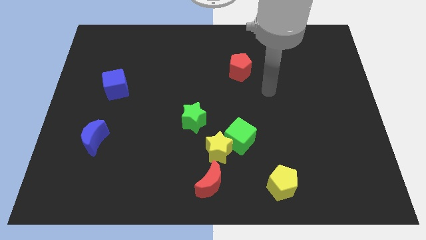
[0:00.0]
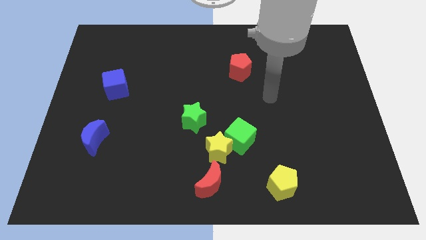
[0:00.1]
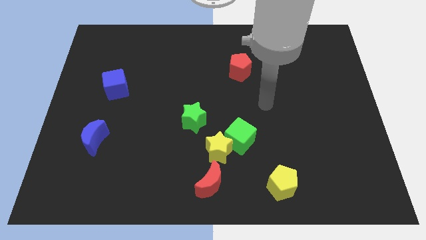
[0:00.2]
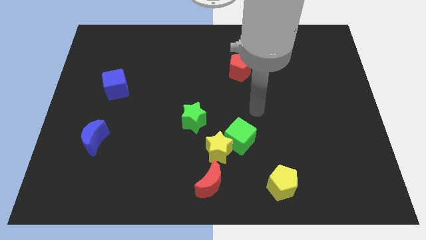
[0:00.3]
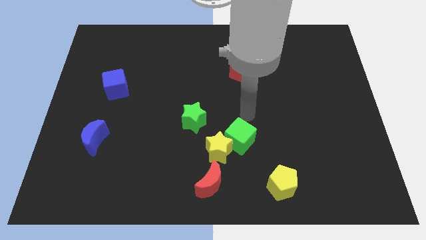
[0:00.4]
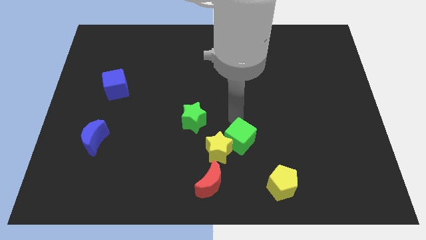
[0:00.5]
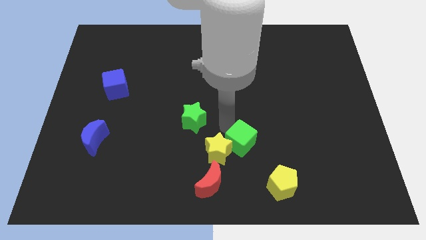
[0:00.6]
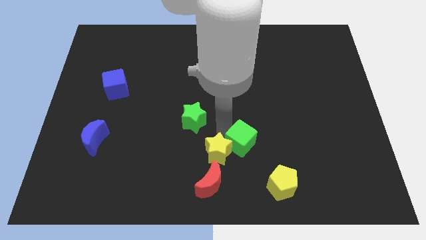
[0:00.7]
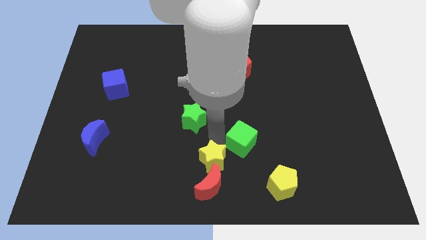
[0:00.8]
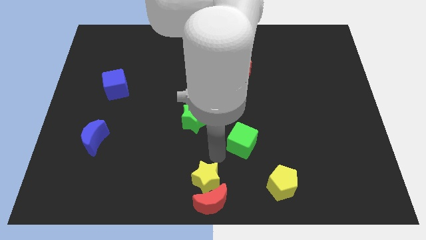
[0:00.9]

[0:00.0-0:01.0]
pull the green cube apart from the yellow star

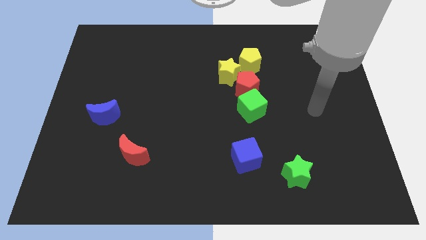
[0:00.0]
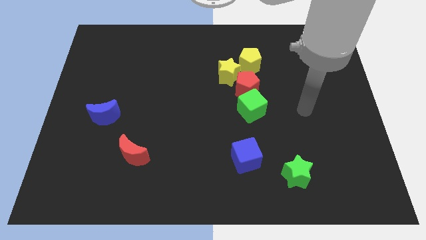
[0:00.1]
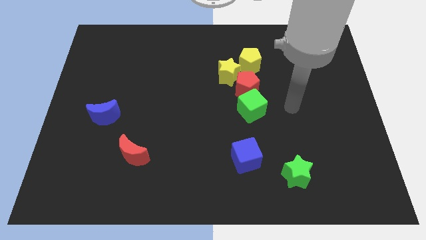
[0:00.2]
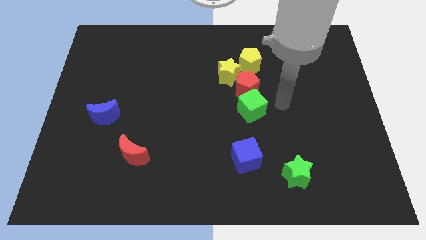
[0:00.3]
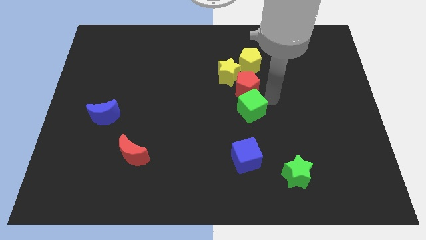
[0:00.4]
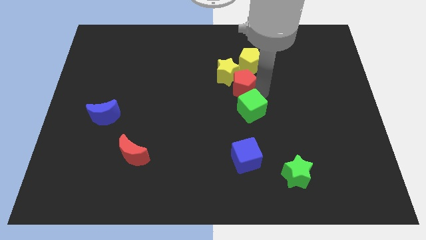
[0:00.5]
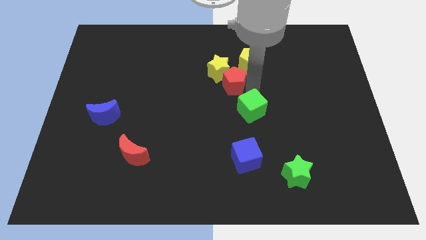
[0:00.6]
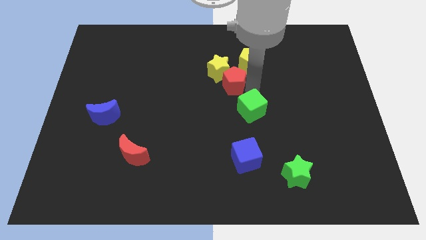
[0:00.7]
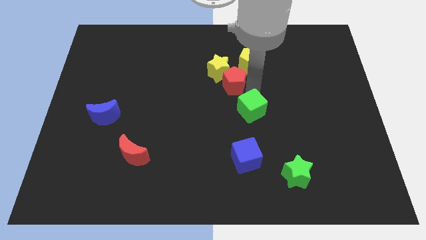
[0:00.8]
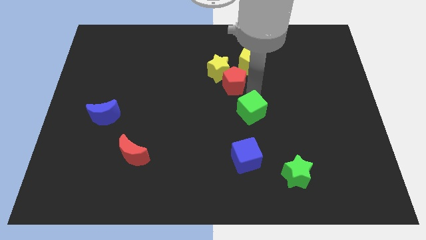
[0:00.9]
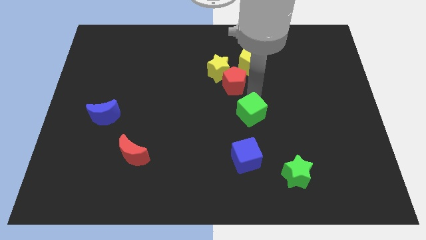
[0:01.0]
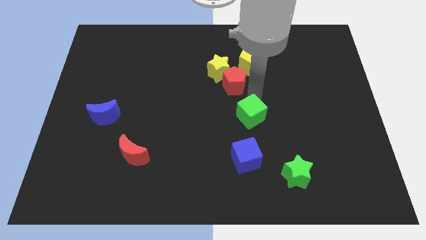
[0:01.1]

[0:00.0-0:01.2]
move the green cube away from the red pentagon

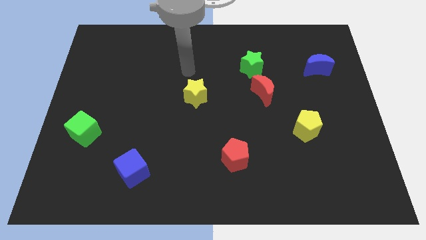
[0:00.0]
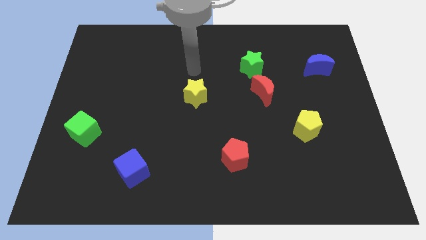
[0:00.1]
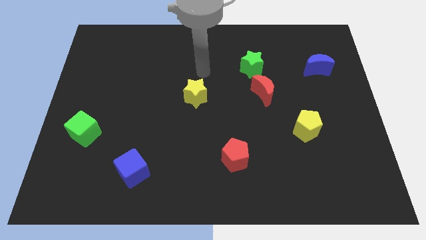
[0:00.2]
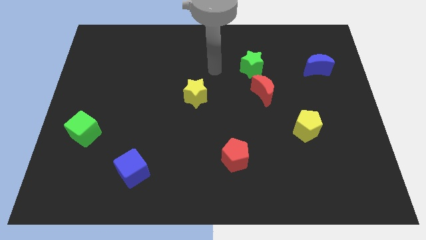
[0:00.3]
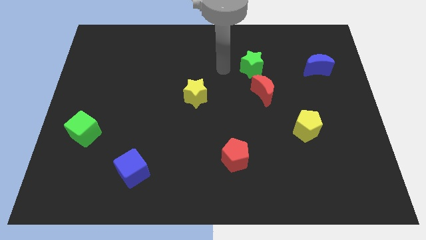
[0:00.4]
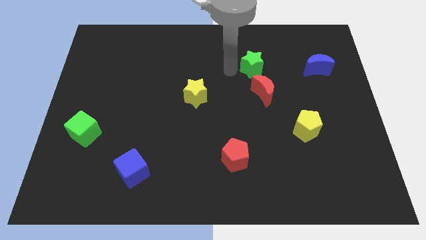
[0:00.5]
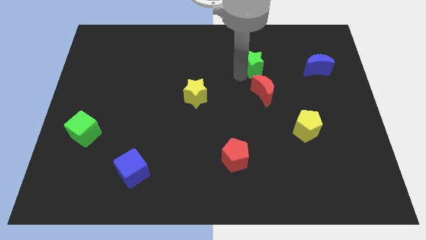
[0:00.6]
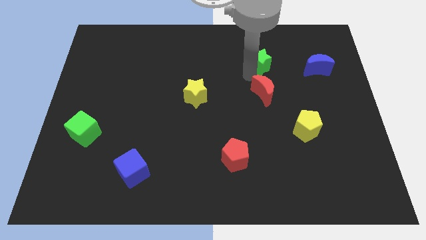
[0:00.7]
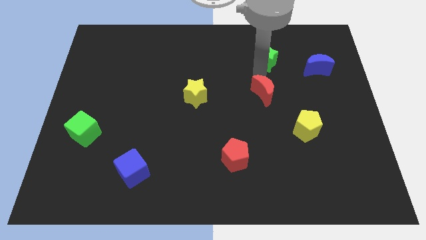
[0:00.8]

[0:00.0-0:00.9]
move the red moon away from the green star

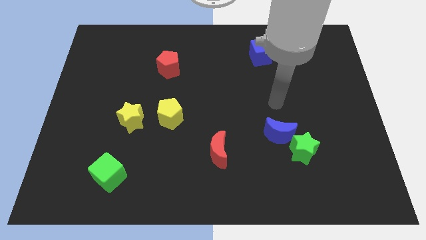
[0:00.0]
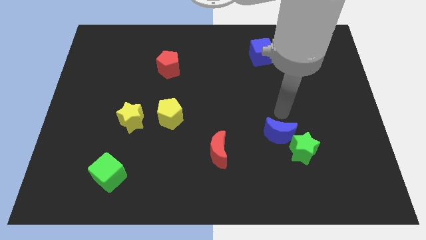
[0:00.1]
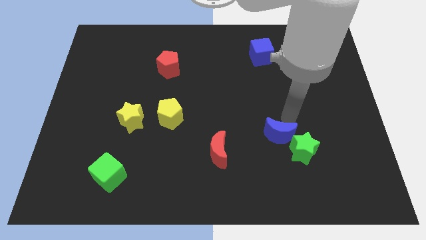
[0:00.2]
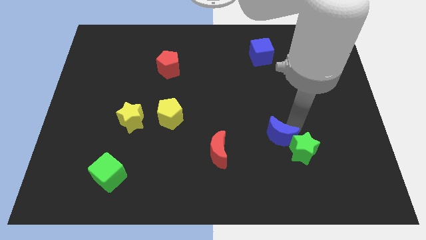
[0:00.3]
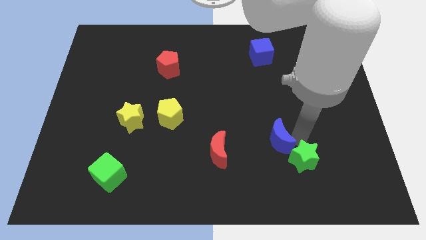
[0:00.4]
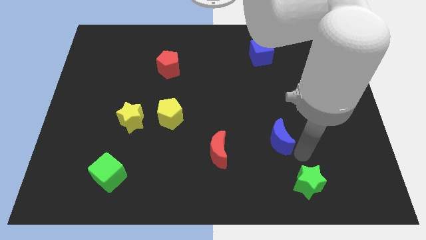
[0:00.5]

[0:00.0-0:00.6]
move the blue moon away from the green star

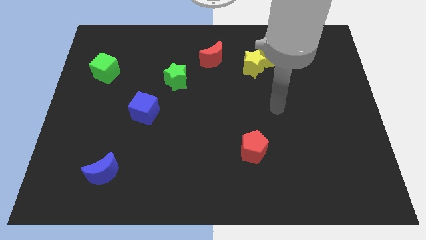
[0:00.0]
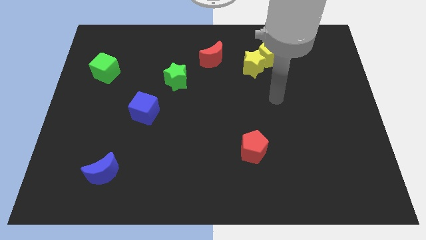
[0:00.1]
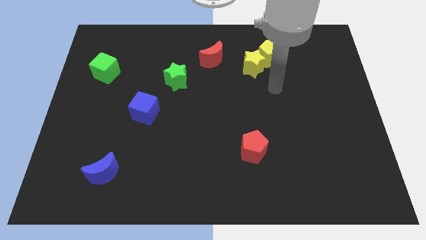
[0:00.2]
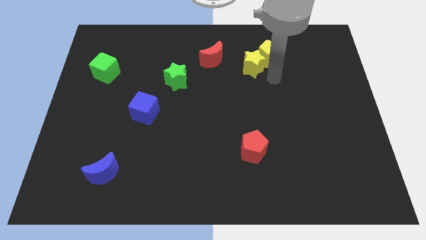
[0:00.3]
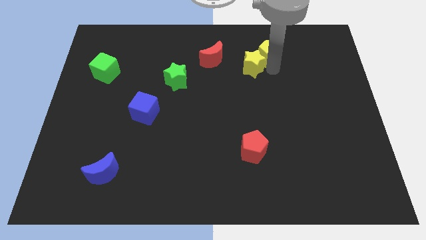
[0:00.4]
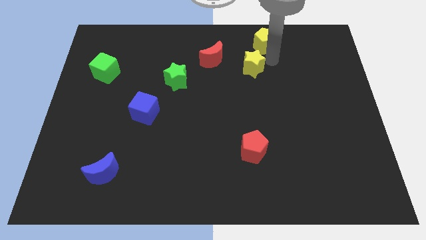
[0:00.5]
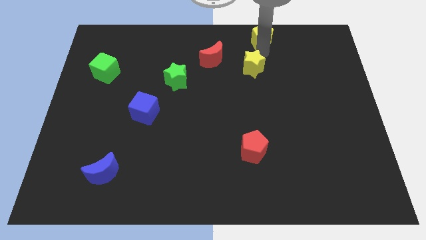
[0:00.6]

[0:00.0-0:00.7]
pull the yellow star apart from the yellow pentagon

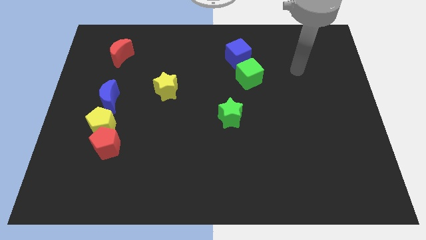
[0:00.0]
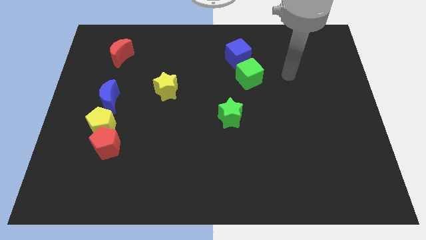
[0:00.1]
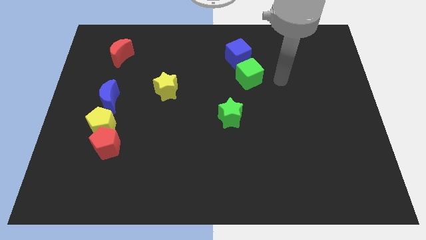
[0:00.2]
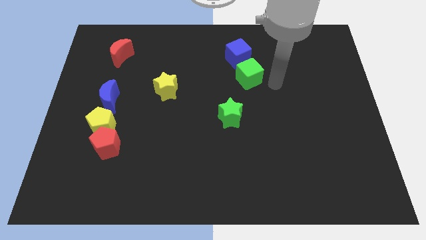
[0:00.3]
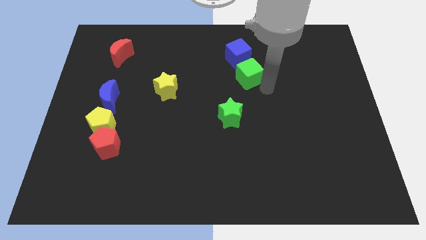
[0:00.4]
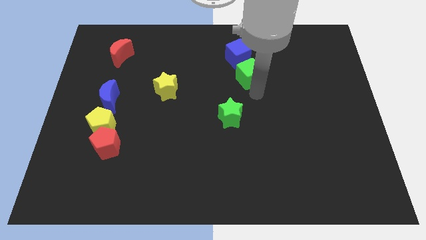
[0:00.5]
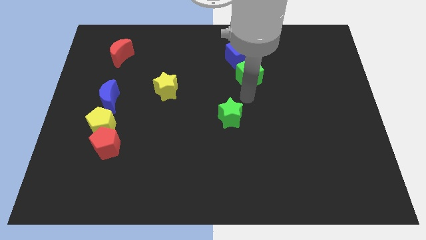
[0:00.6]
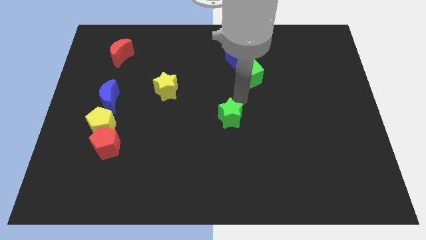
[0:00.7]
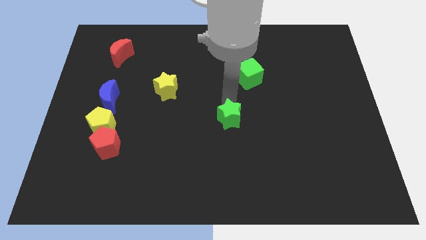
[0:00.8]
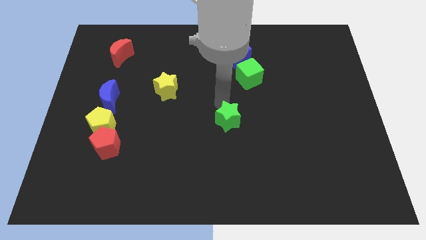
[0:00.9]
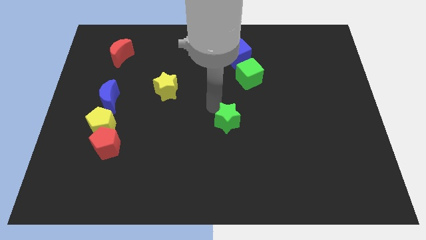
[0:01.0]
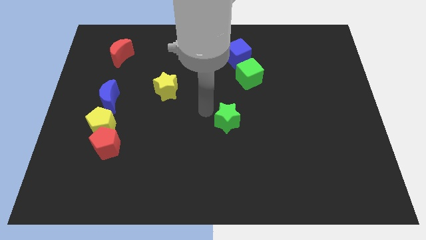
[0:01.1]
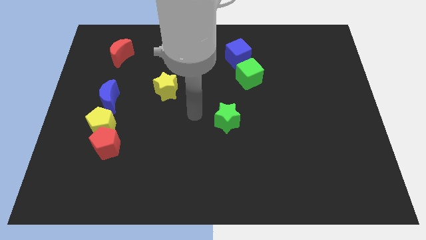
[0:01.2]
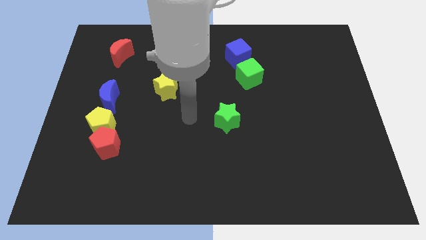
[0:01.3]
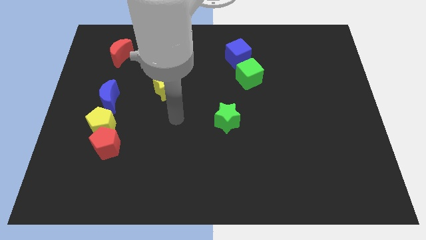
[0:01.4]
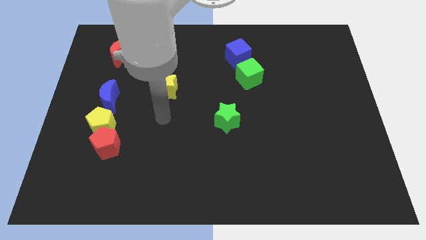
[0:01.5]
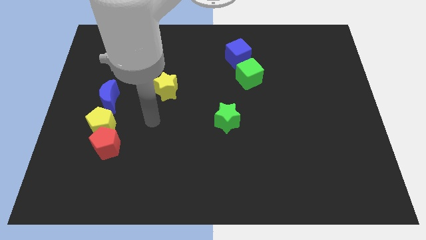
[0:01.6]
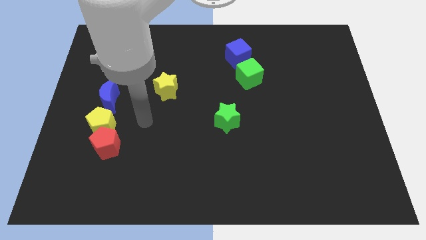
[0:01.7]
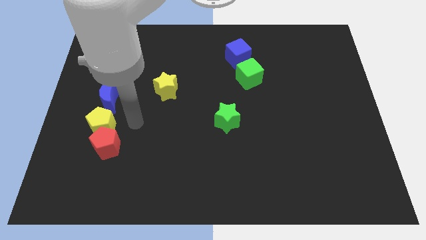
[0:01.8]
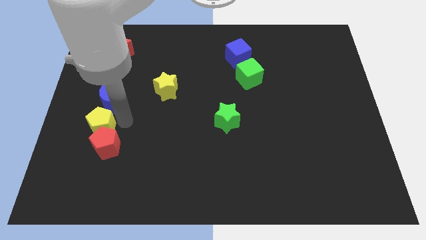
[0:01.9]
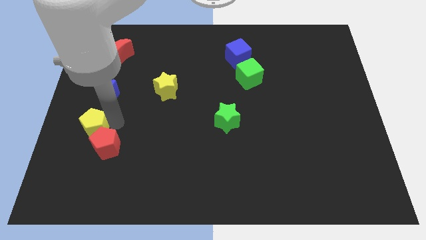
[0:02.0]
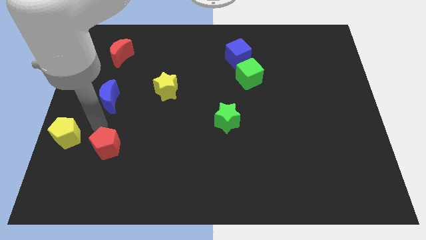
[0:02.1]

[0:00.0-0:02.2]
move the red pentagon away from the yellow pentagon

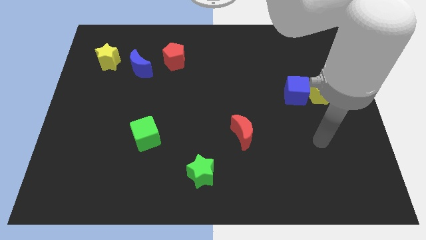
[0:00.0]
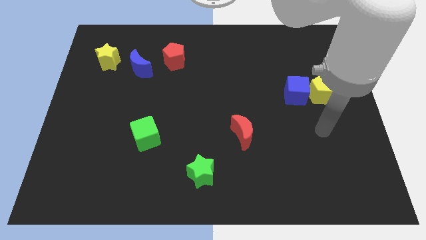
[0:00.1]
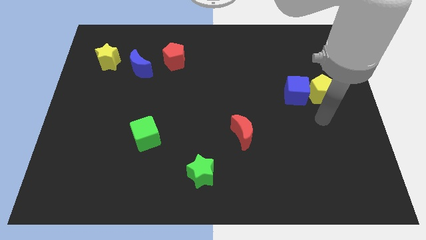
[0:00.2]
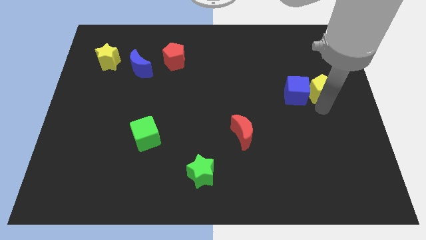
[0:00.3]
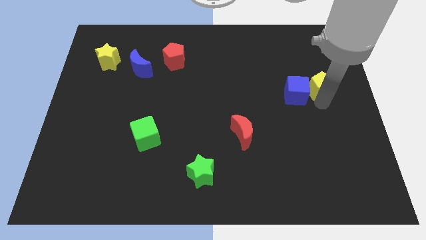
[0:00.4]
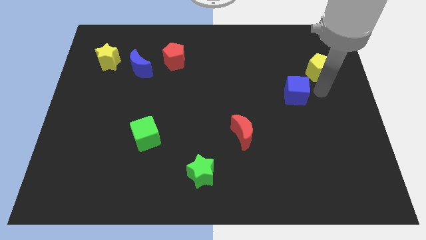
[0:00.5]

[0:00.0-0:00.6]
move the blue cube away from the yellow pentagon

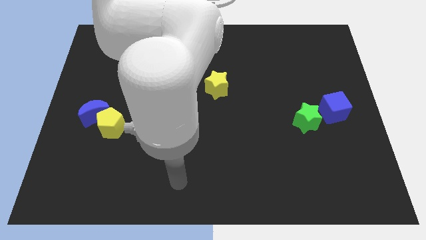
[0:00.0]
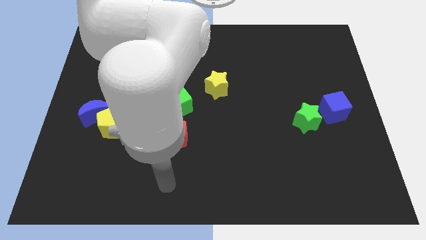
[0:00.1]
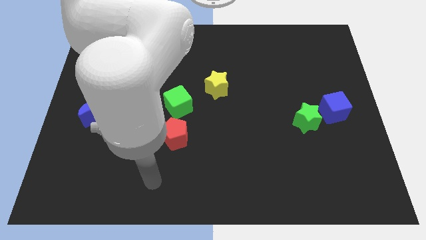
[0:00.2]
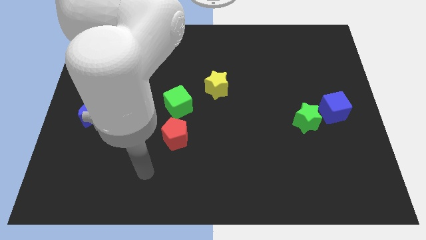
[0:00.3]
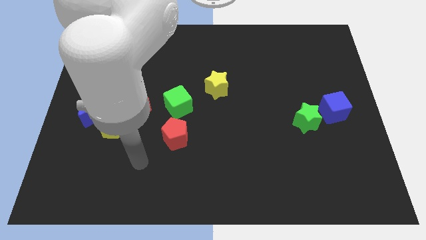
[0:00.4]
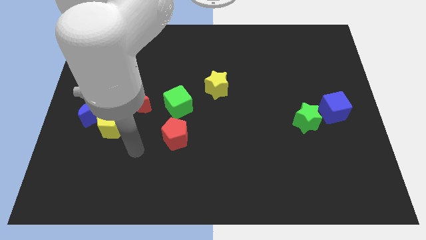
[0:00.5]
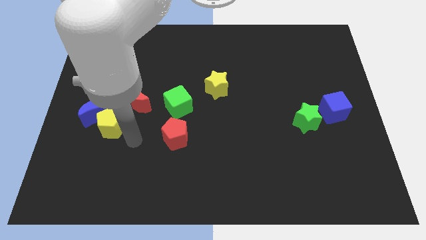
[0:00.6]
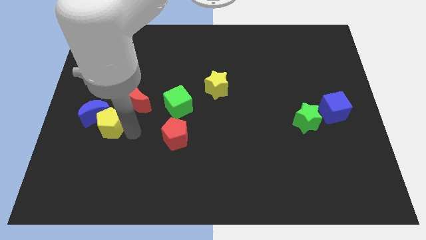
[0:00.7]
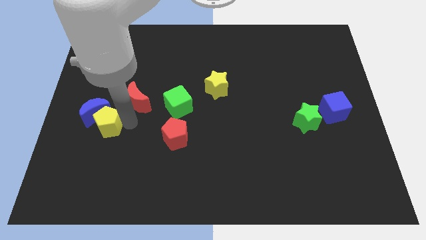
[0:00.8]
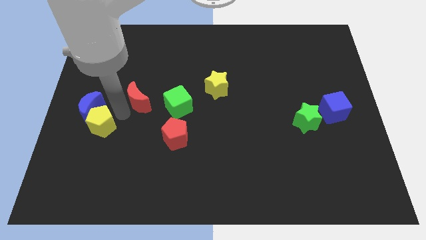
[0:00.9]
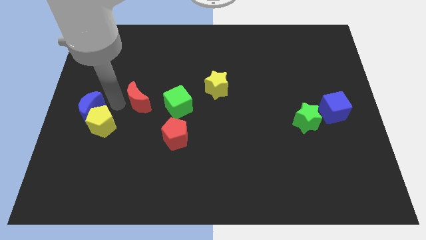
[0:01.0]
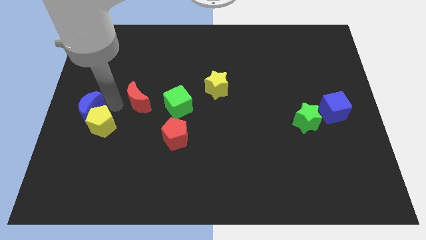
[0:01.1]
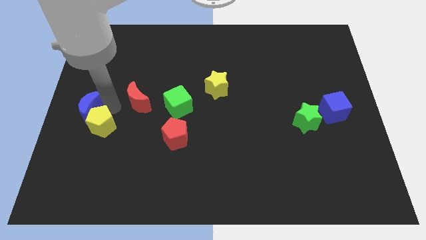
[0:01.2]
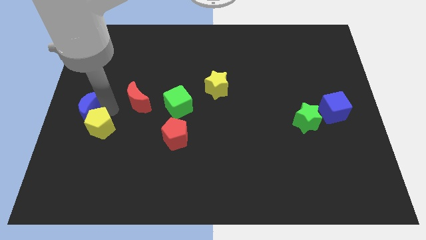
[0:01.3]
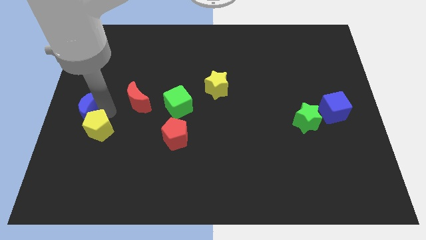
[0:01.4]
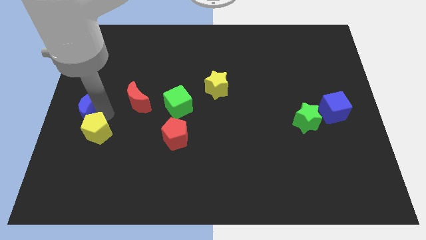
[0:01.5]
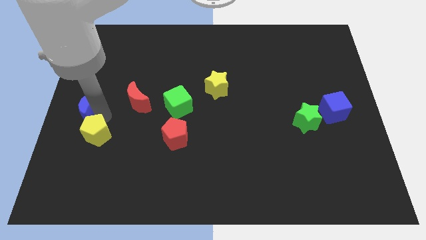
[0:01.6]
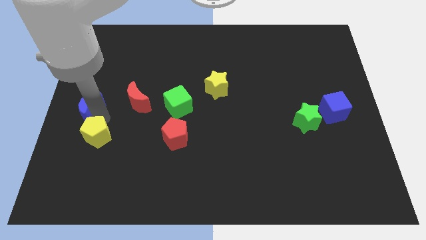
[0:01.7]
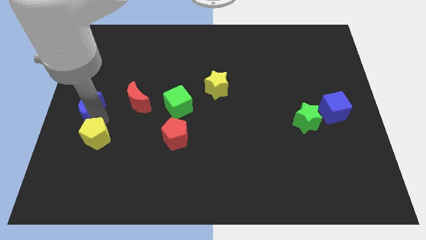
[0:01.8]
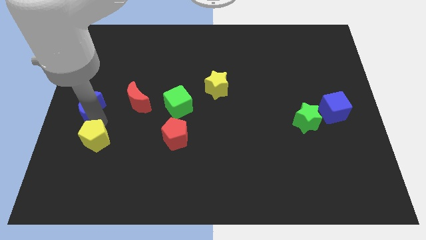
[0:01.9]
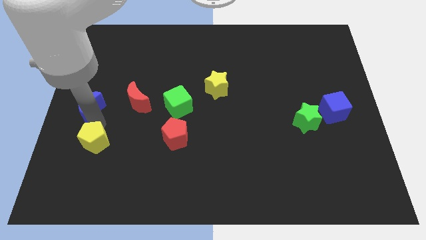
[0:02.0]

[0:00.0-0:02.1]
separate the yellow pentagon from the blue moon and red moon
